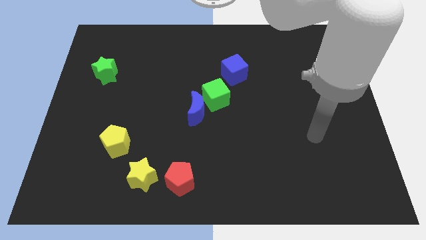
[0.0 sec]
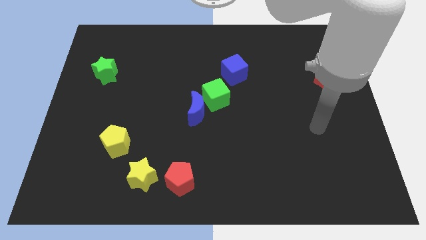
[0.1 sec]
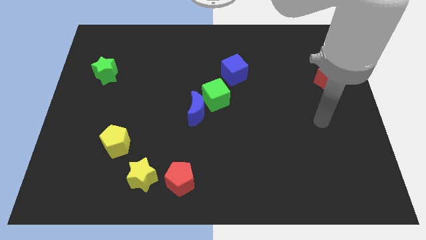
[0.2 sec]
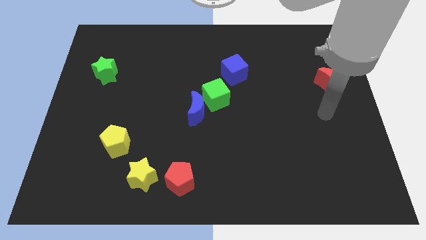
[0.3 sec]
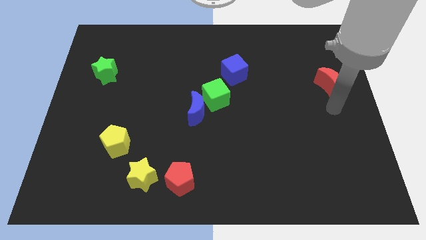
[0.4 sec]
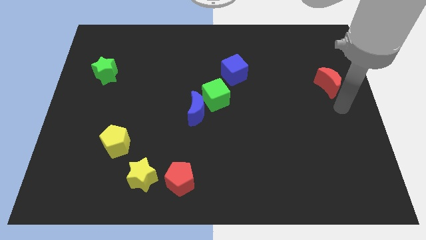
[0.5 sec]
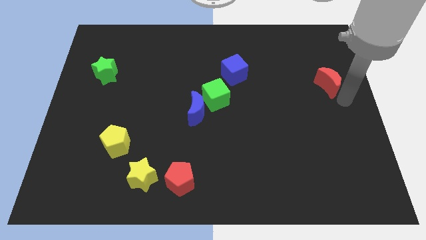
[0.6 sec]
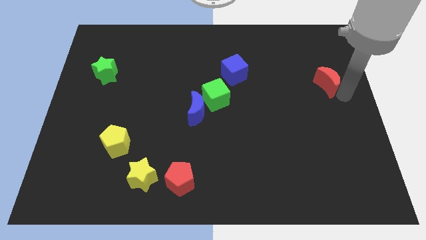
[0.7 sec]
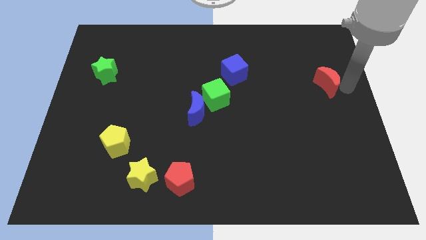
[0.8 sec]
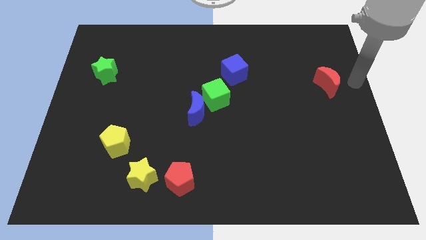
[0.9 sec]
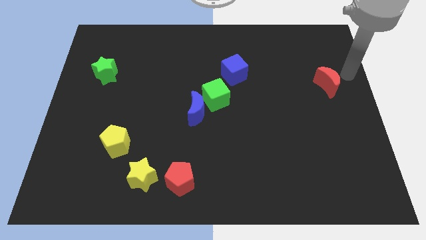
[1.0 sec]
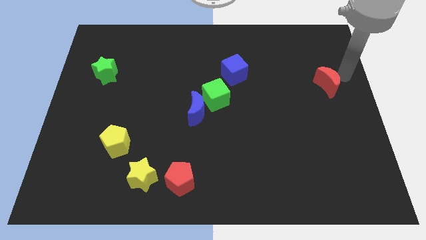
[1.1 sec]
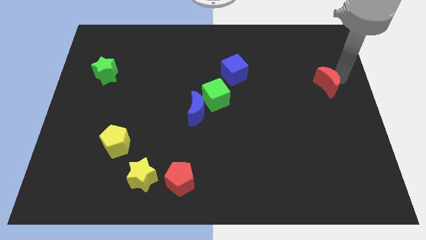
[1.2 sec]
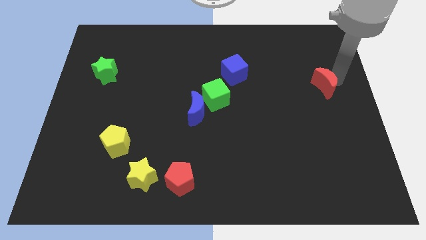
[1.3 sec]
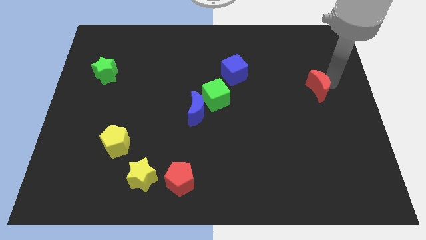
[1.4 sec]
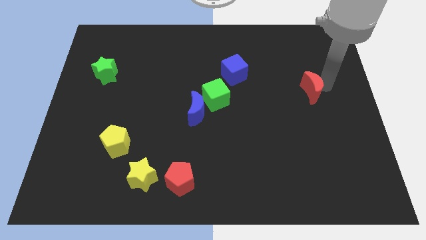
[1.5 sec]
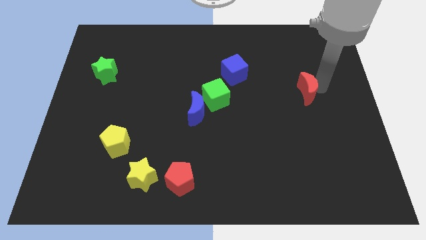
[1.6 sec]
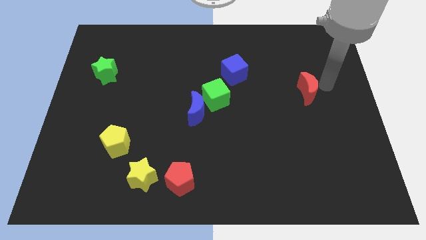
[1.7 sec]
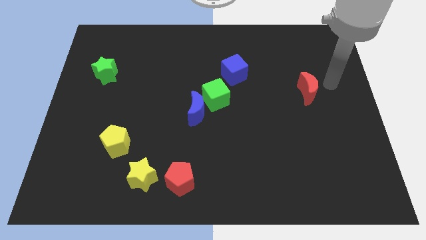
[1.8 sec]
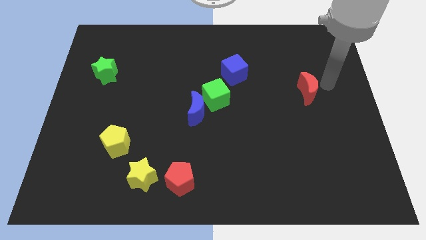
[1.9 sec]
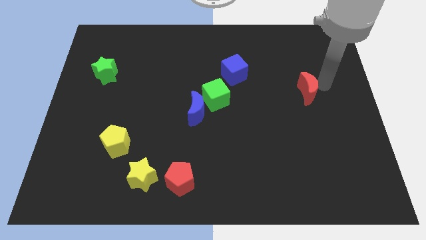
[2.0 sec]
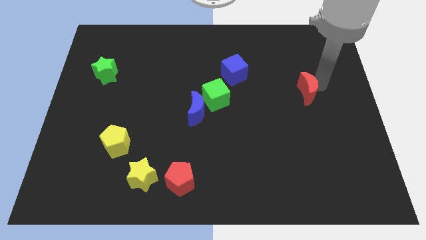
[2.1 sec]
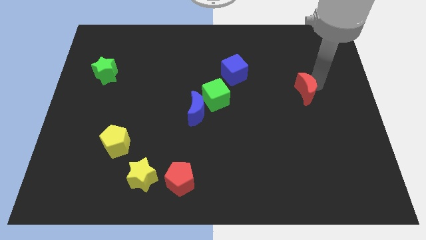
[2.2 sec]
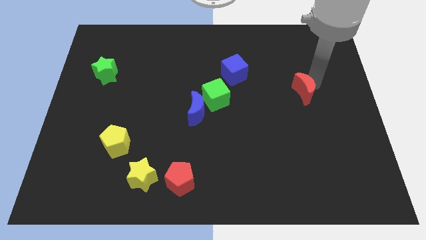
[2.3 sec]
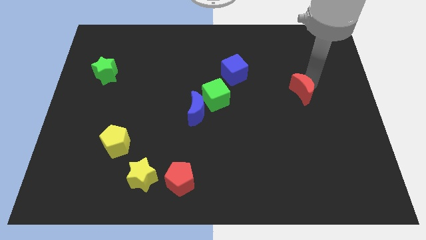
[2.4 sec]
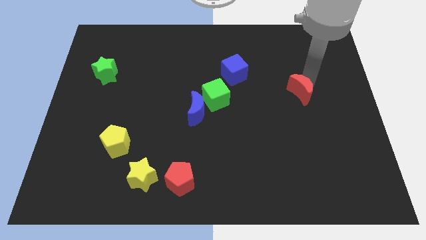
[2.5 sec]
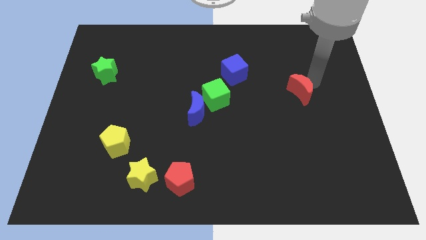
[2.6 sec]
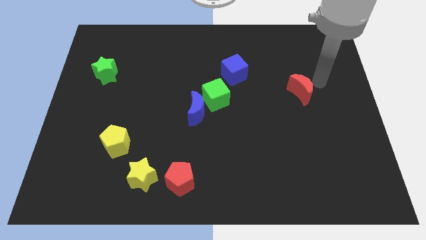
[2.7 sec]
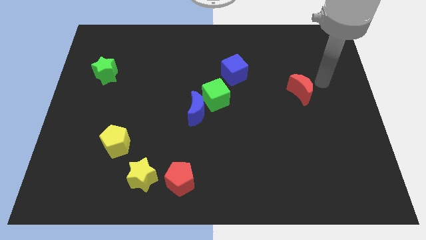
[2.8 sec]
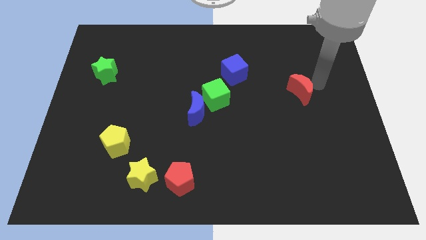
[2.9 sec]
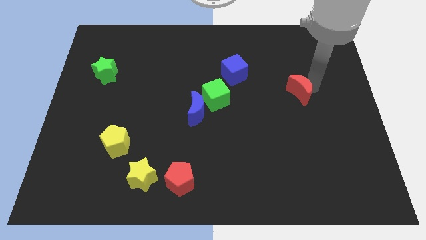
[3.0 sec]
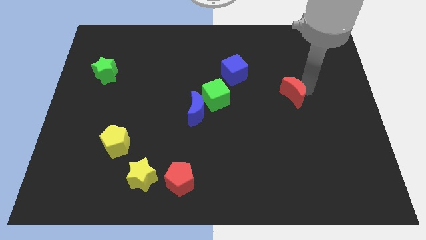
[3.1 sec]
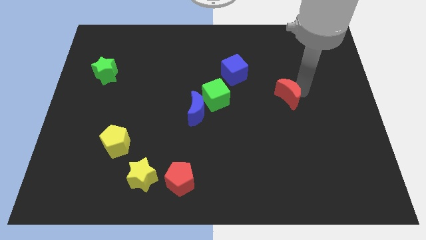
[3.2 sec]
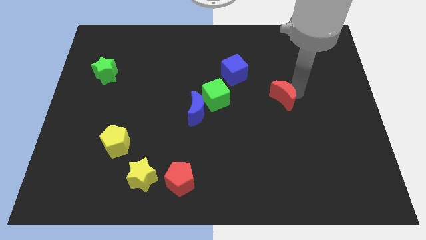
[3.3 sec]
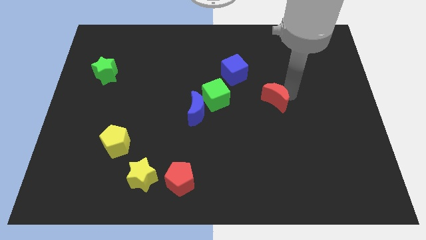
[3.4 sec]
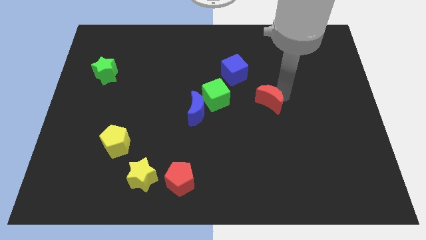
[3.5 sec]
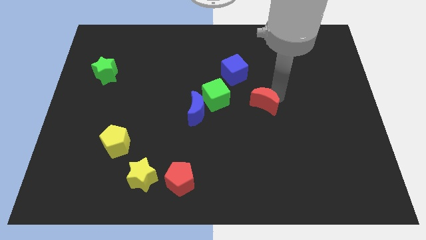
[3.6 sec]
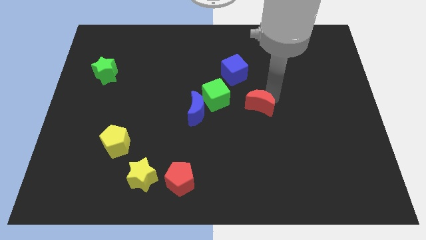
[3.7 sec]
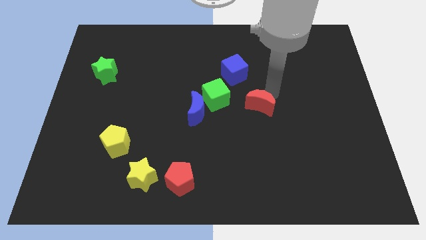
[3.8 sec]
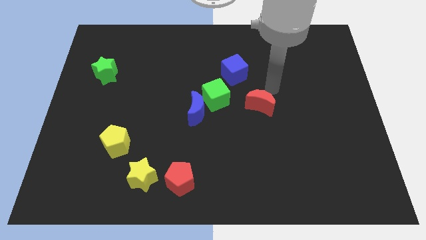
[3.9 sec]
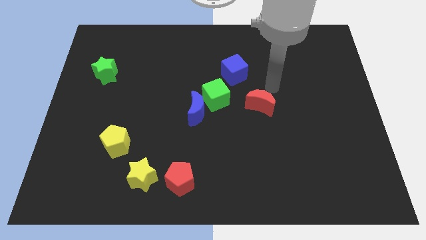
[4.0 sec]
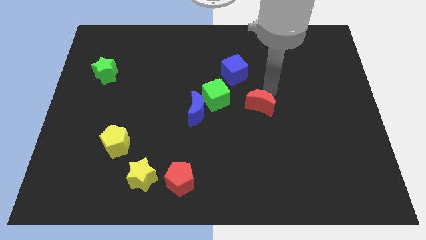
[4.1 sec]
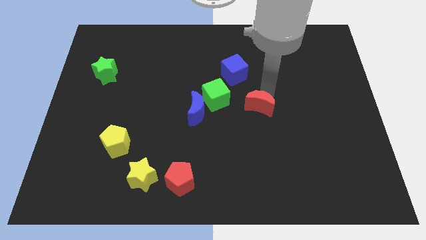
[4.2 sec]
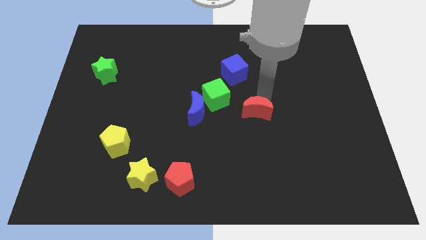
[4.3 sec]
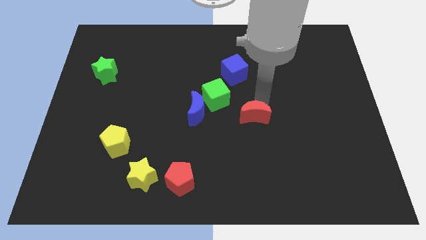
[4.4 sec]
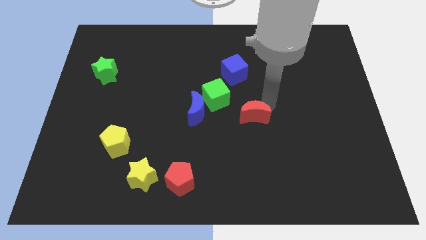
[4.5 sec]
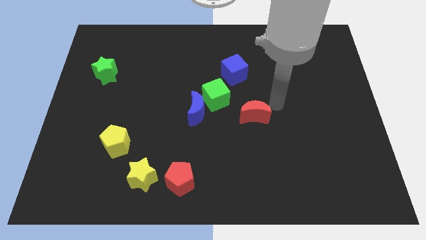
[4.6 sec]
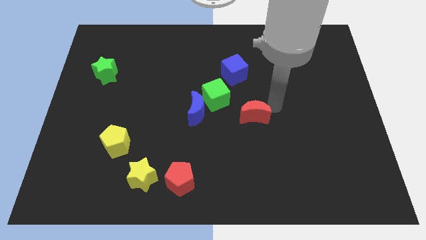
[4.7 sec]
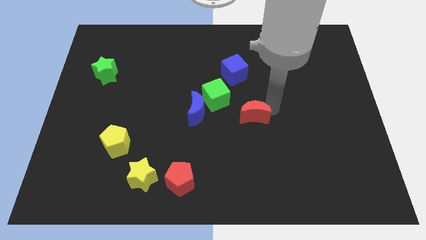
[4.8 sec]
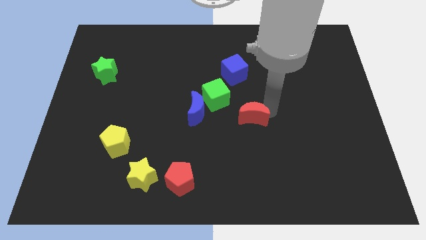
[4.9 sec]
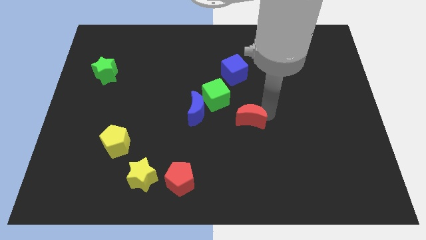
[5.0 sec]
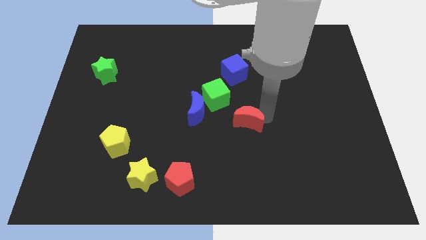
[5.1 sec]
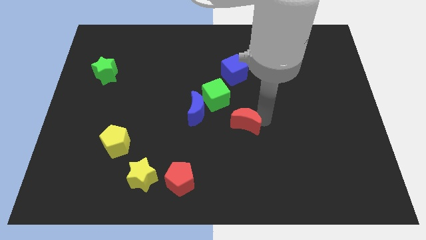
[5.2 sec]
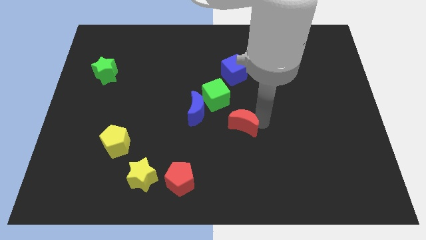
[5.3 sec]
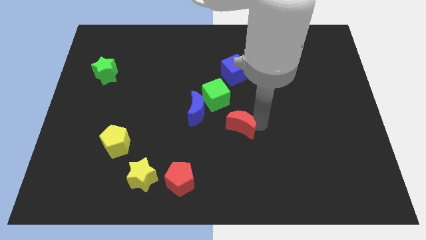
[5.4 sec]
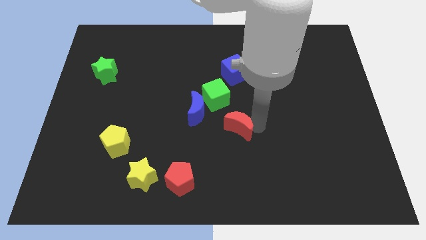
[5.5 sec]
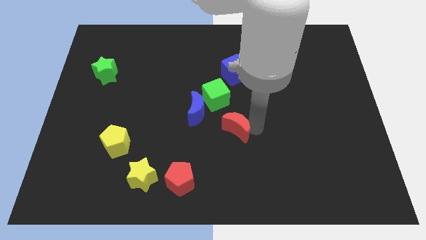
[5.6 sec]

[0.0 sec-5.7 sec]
move the red moon to the bottom of the green cube

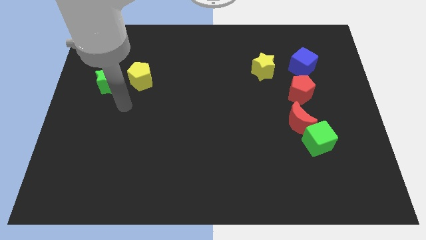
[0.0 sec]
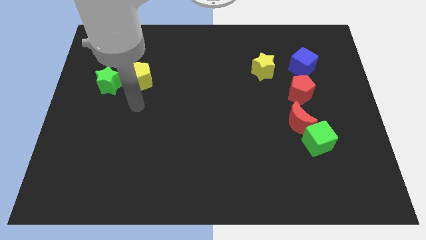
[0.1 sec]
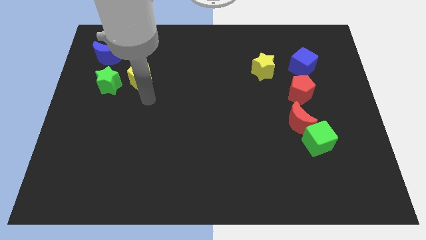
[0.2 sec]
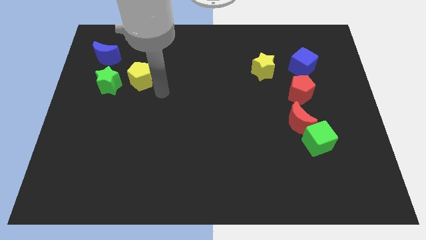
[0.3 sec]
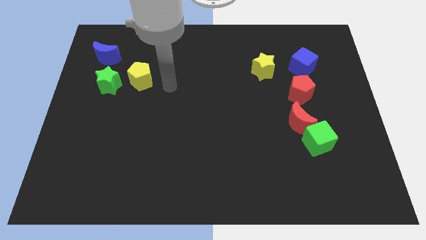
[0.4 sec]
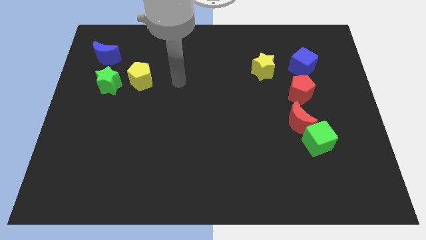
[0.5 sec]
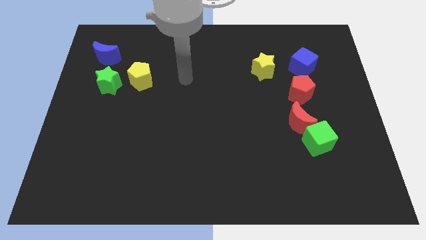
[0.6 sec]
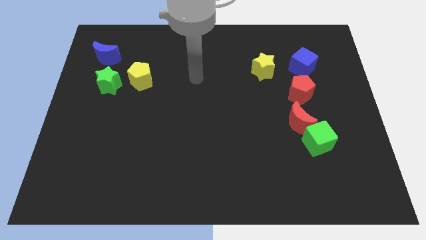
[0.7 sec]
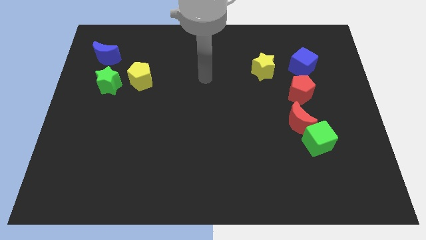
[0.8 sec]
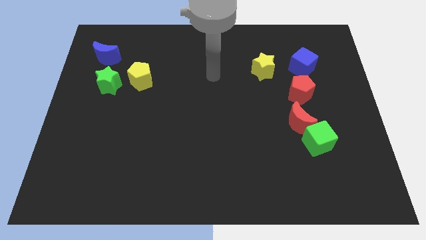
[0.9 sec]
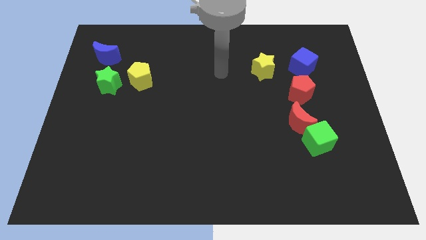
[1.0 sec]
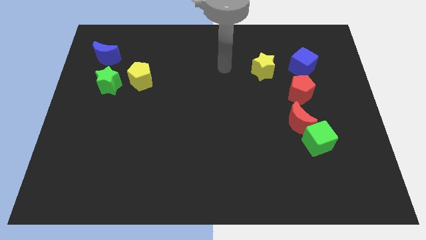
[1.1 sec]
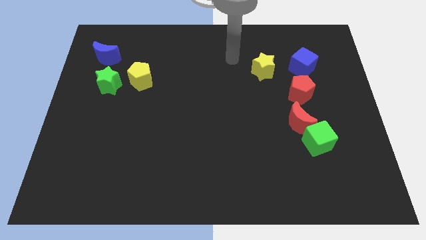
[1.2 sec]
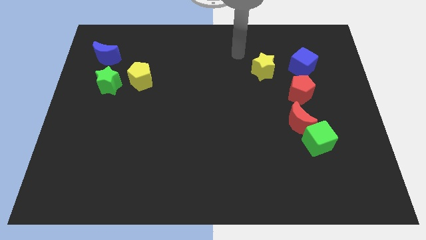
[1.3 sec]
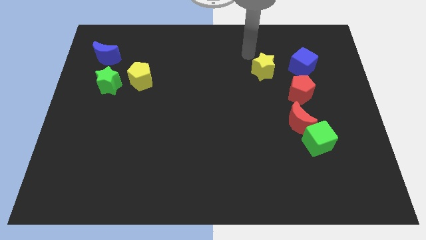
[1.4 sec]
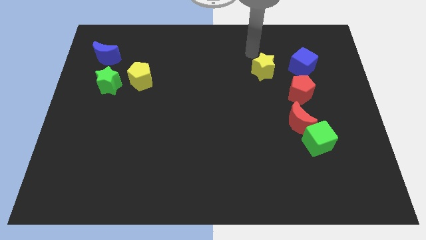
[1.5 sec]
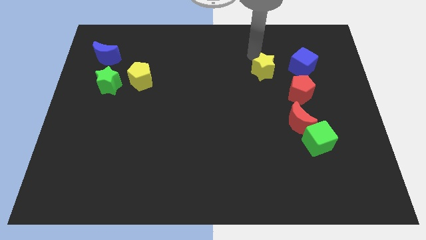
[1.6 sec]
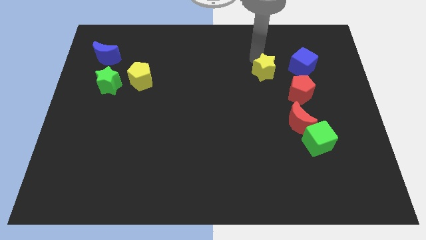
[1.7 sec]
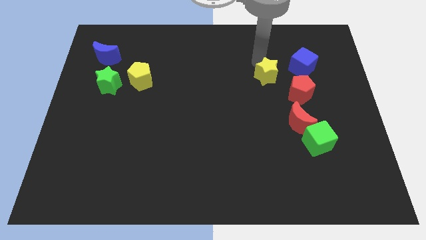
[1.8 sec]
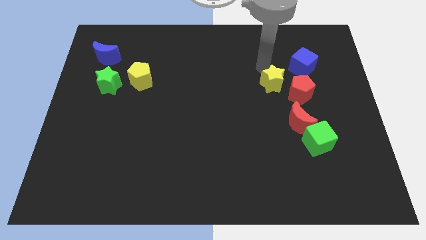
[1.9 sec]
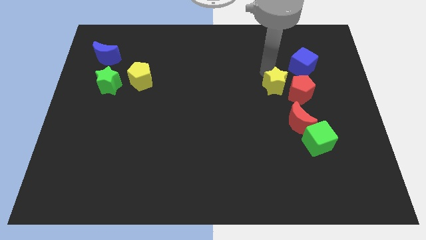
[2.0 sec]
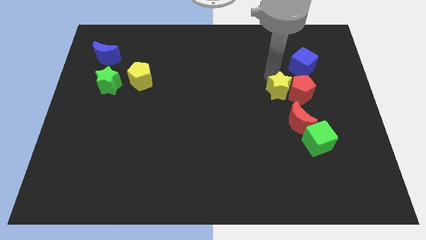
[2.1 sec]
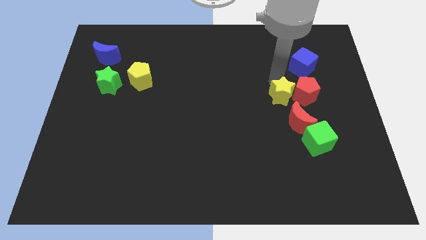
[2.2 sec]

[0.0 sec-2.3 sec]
move the yellow star to the top left of the red moon
